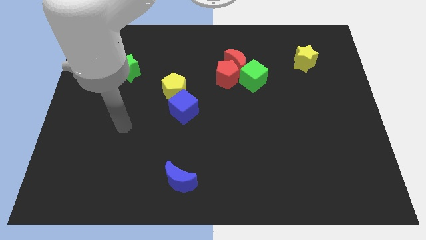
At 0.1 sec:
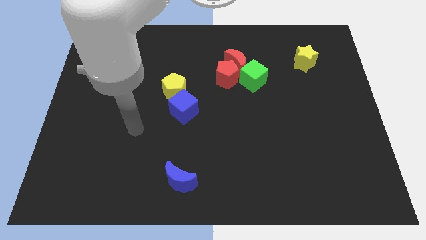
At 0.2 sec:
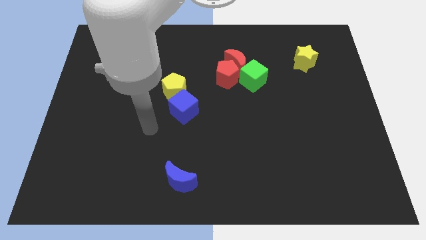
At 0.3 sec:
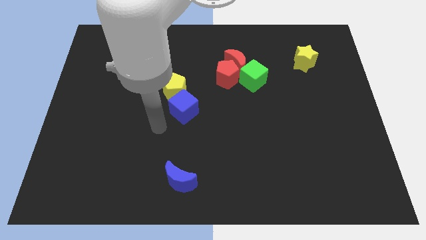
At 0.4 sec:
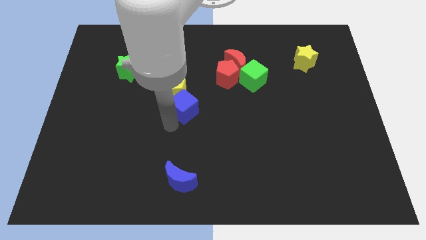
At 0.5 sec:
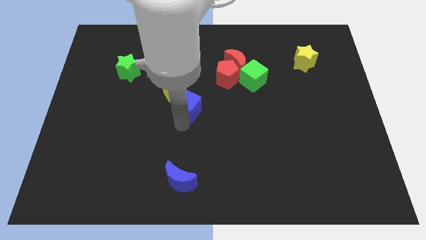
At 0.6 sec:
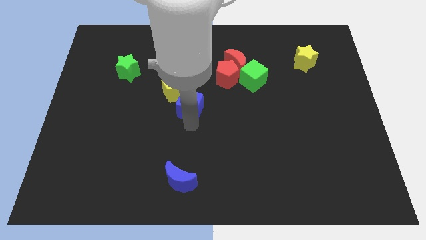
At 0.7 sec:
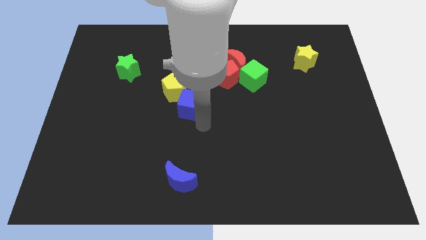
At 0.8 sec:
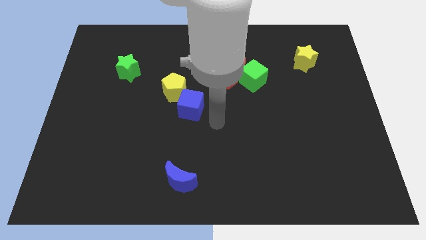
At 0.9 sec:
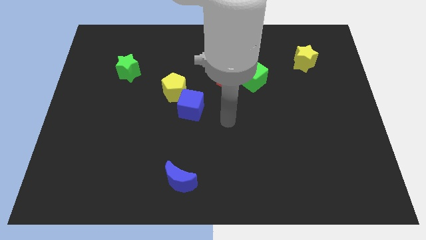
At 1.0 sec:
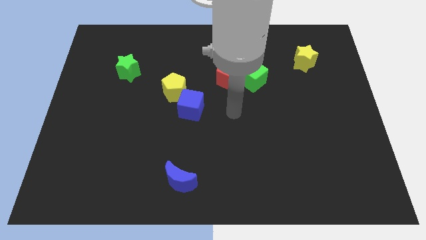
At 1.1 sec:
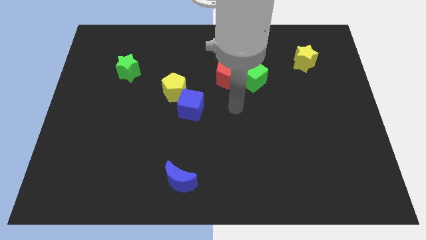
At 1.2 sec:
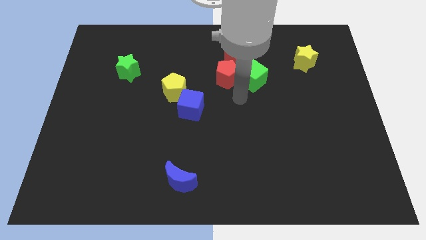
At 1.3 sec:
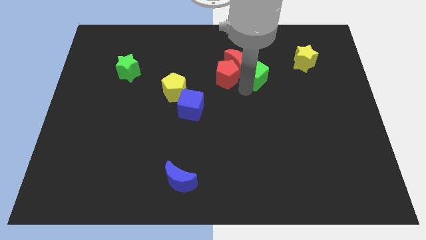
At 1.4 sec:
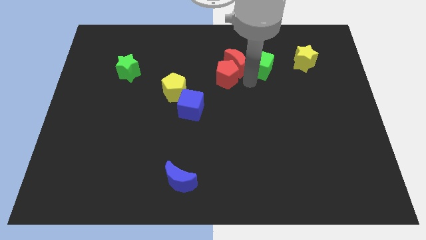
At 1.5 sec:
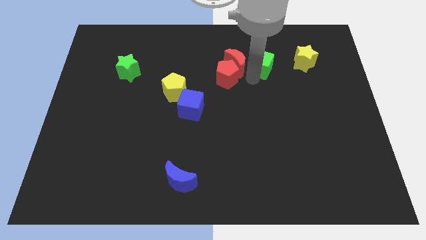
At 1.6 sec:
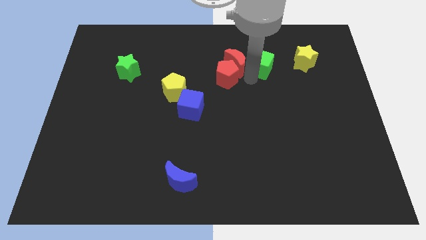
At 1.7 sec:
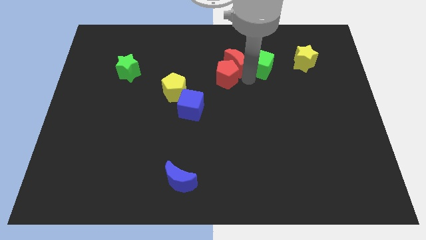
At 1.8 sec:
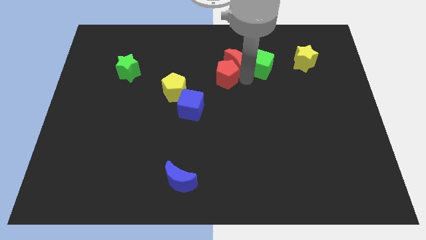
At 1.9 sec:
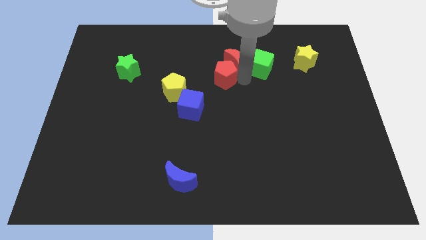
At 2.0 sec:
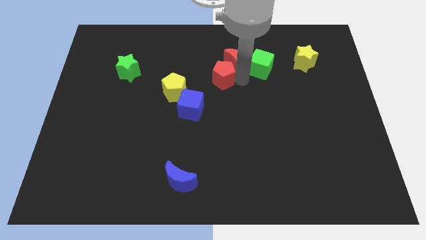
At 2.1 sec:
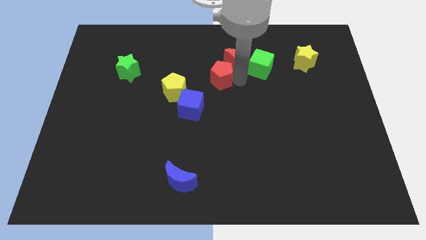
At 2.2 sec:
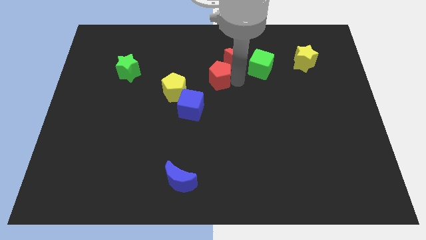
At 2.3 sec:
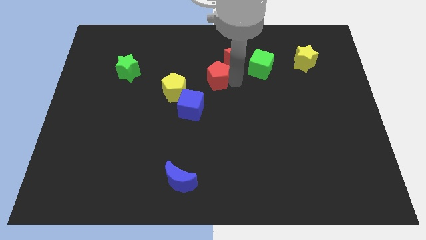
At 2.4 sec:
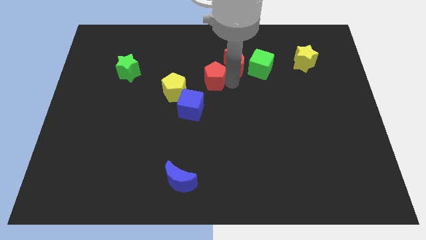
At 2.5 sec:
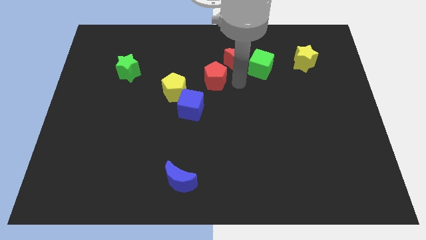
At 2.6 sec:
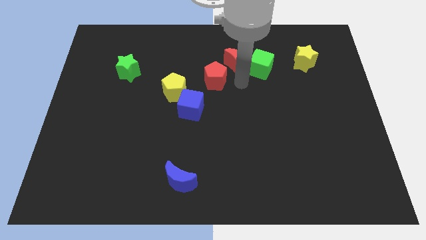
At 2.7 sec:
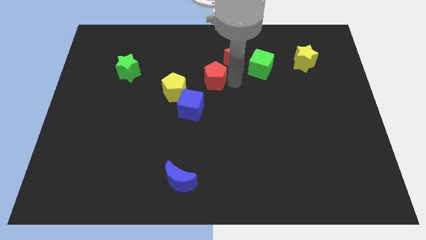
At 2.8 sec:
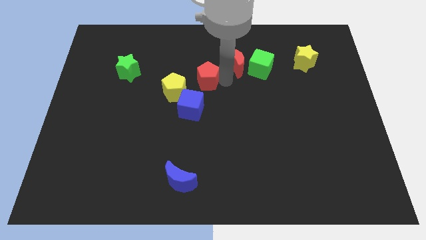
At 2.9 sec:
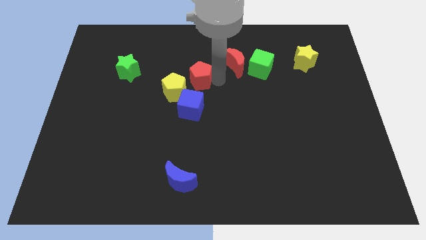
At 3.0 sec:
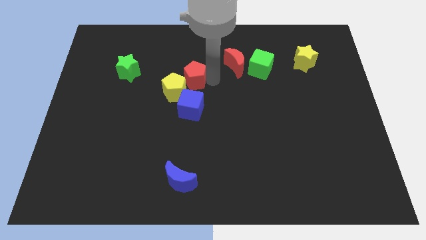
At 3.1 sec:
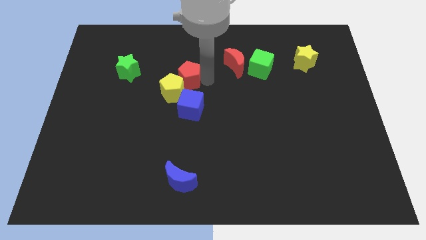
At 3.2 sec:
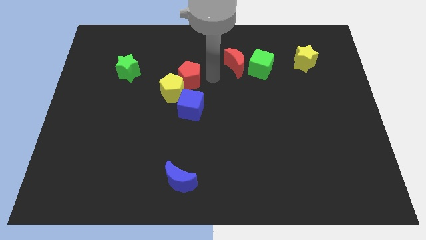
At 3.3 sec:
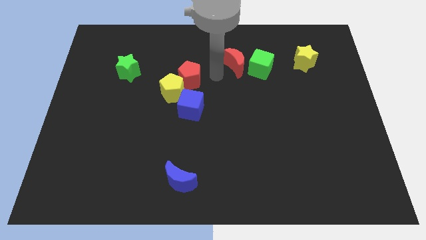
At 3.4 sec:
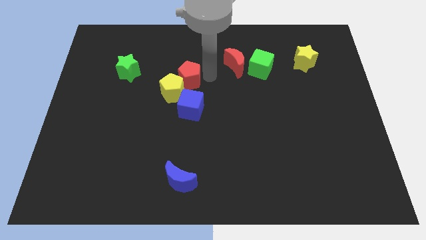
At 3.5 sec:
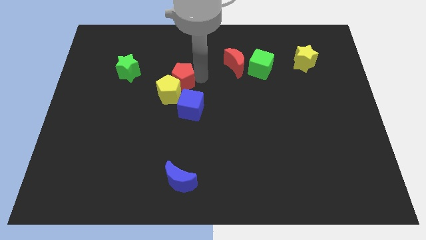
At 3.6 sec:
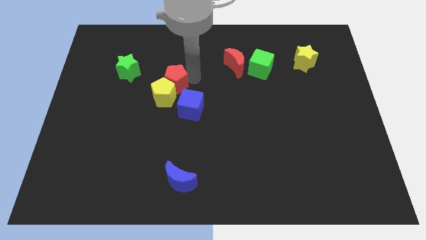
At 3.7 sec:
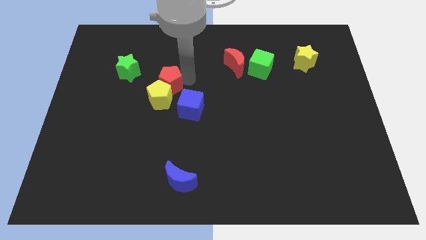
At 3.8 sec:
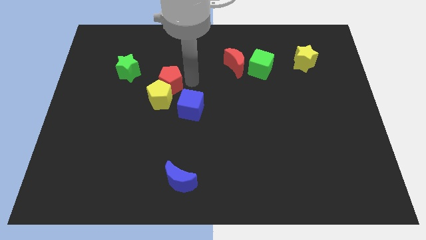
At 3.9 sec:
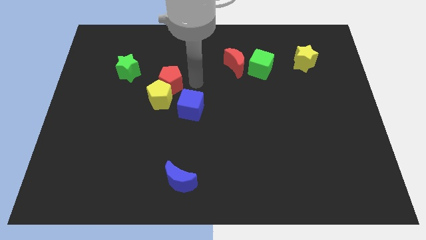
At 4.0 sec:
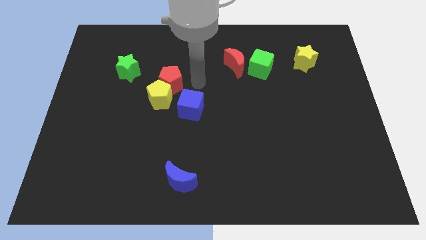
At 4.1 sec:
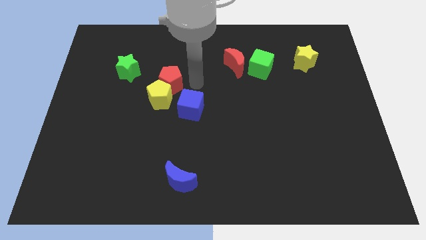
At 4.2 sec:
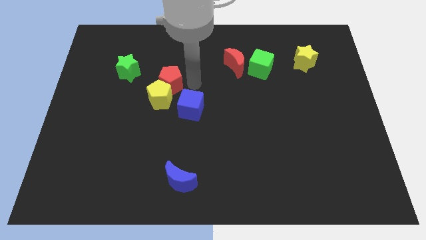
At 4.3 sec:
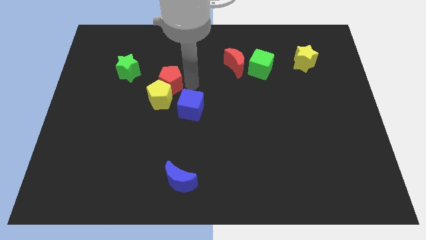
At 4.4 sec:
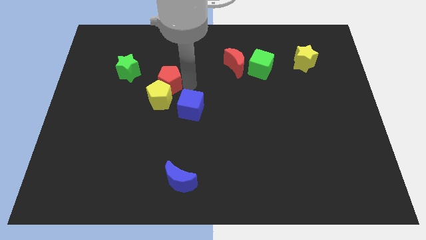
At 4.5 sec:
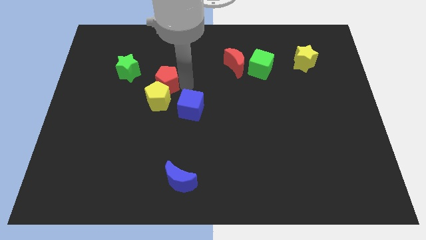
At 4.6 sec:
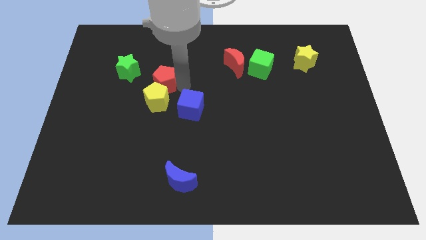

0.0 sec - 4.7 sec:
slide the red pentagon diagonally down and to the right of the green star

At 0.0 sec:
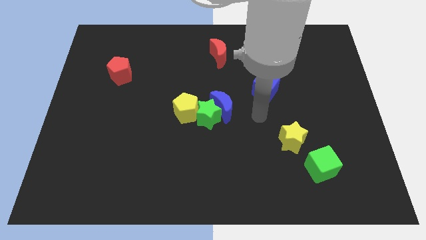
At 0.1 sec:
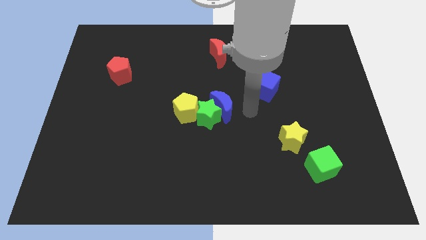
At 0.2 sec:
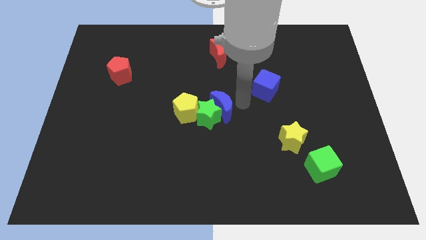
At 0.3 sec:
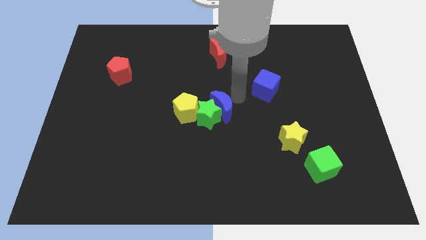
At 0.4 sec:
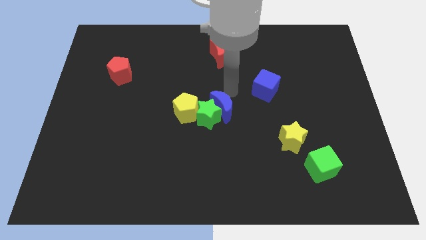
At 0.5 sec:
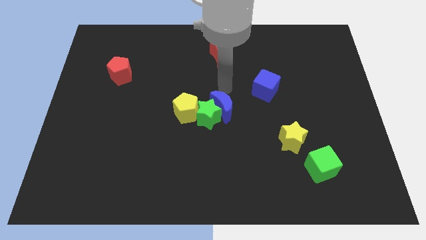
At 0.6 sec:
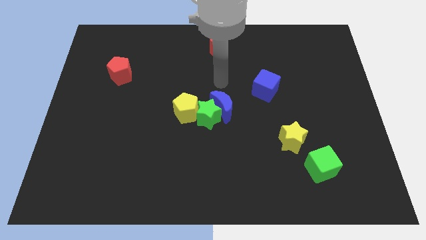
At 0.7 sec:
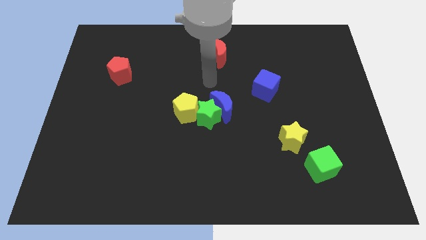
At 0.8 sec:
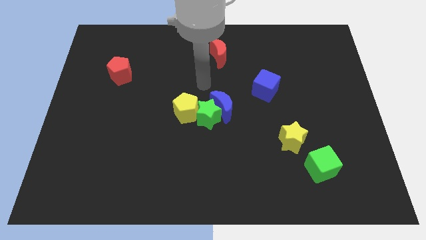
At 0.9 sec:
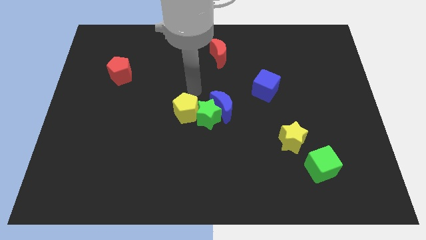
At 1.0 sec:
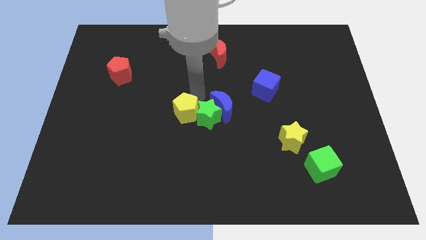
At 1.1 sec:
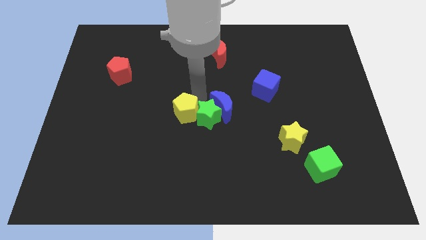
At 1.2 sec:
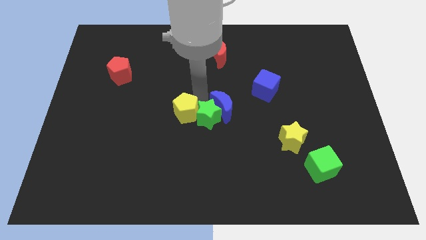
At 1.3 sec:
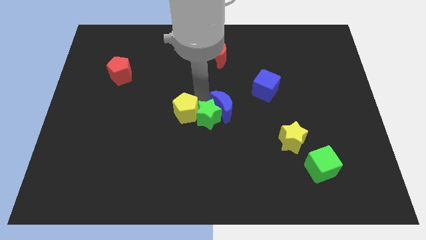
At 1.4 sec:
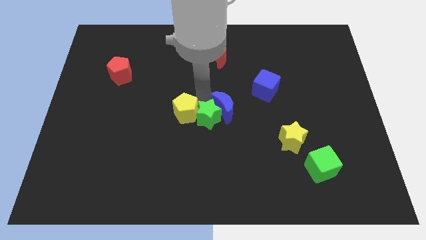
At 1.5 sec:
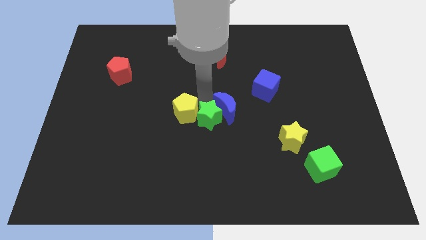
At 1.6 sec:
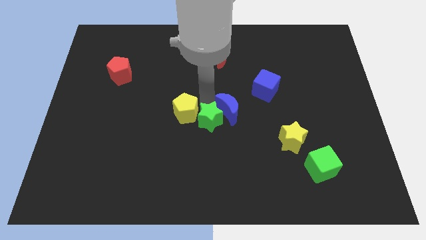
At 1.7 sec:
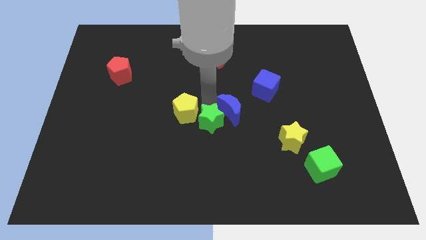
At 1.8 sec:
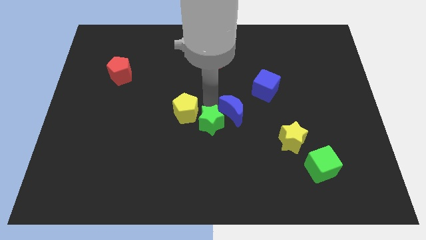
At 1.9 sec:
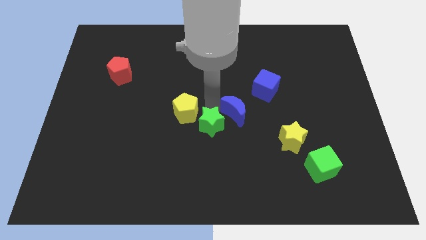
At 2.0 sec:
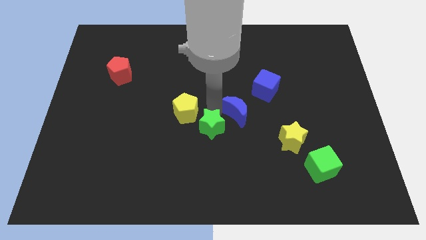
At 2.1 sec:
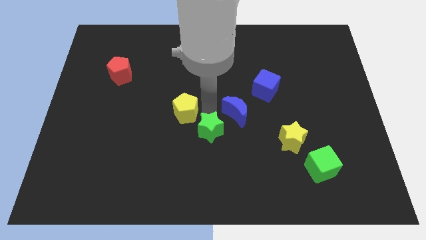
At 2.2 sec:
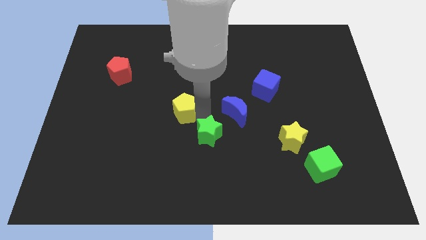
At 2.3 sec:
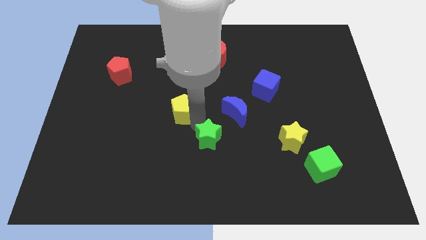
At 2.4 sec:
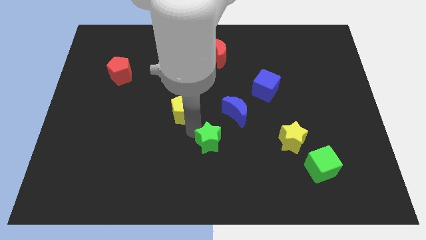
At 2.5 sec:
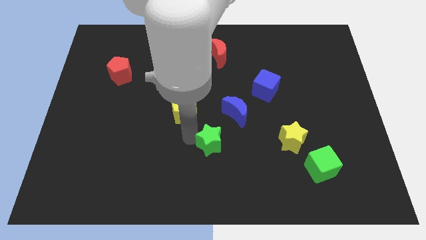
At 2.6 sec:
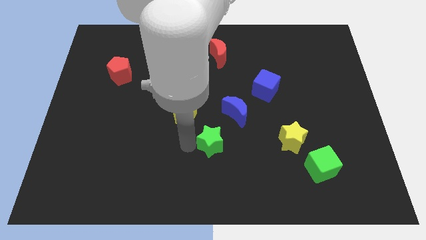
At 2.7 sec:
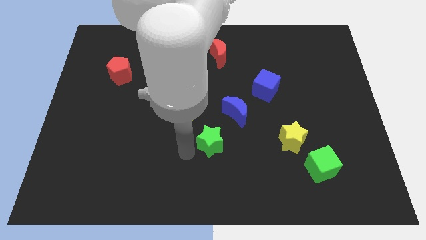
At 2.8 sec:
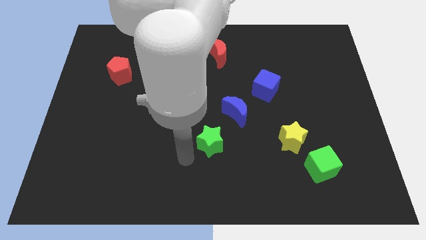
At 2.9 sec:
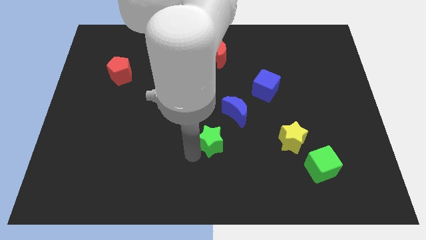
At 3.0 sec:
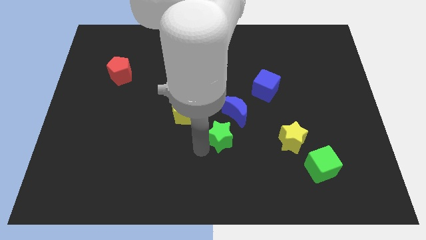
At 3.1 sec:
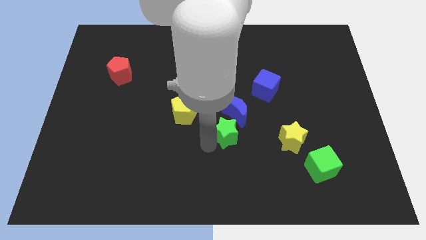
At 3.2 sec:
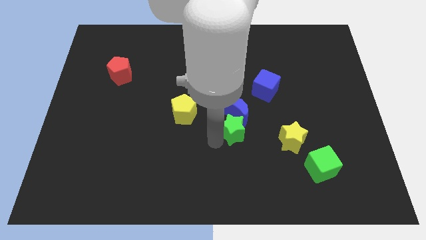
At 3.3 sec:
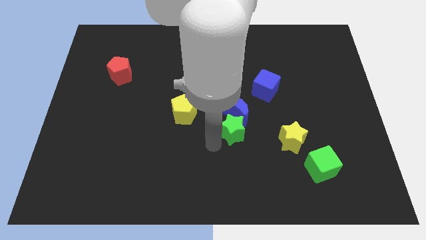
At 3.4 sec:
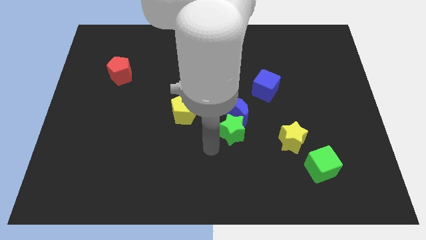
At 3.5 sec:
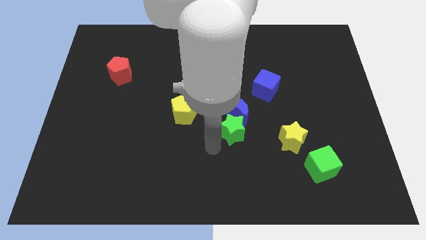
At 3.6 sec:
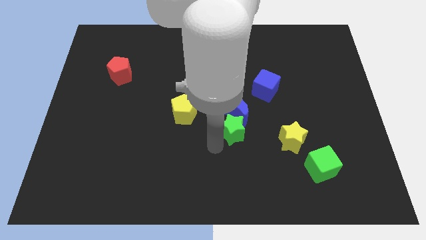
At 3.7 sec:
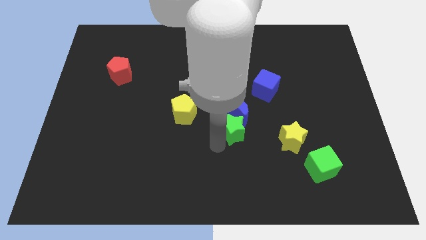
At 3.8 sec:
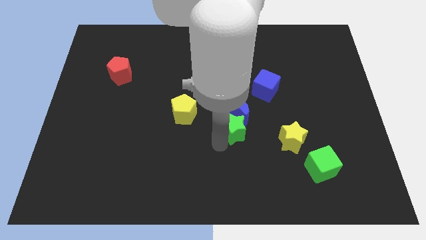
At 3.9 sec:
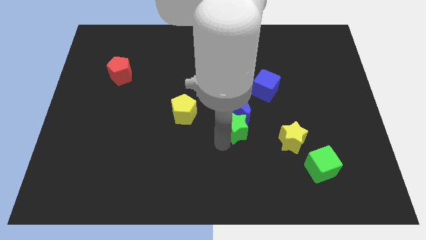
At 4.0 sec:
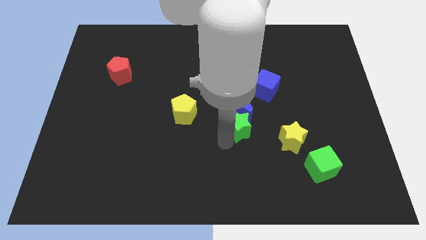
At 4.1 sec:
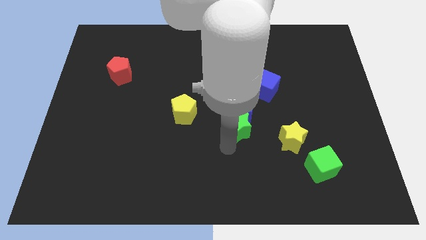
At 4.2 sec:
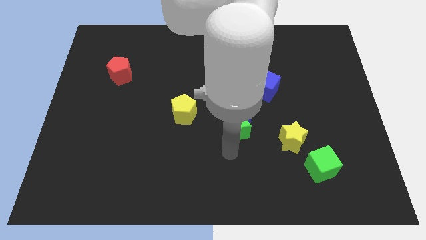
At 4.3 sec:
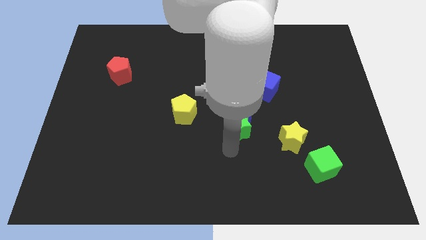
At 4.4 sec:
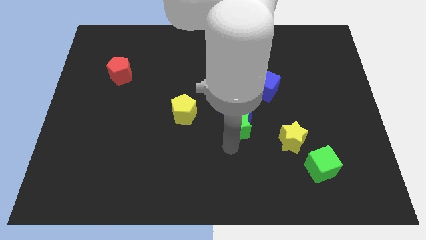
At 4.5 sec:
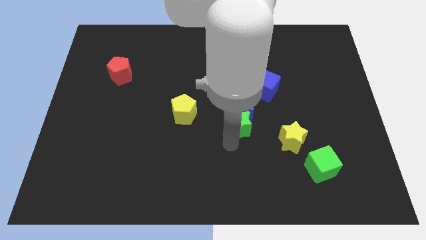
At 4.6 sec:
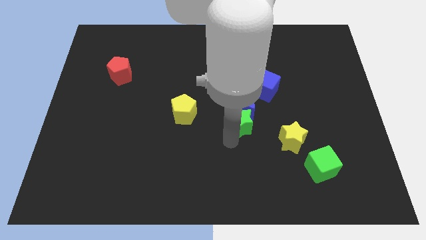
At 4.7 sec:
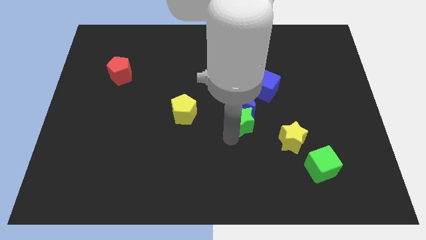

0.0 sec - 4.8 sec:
move the green star diagonally down and to the left of the blue cube
